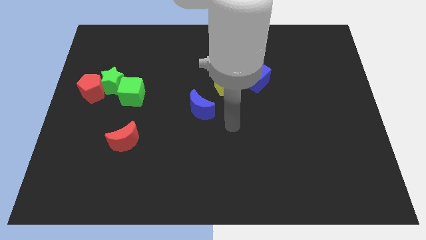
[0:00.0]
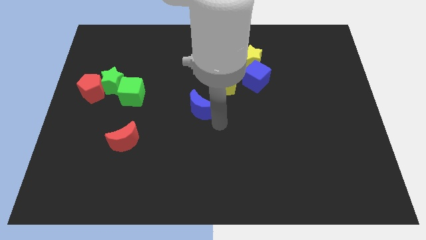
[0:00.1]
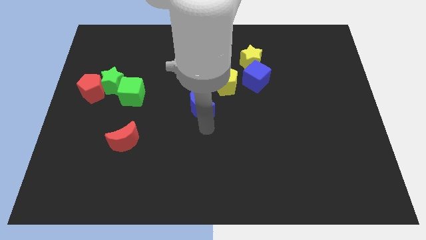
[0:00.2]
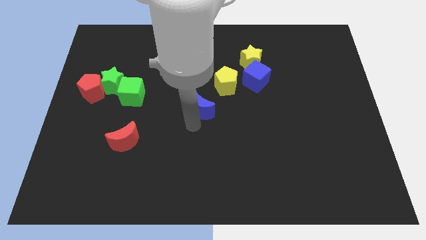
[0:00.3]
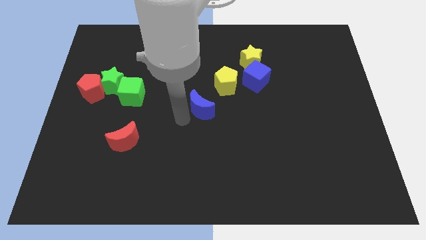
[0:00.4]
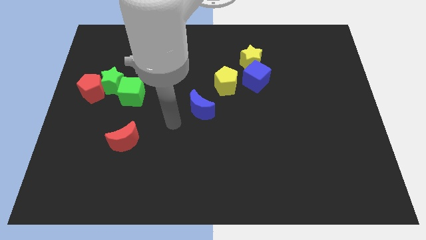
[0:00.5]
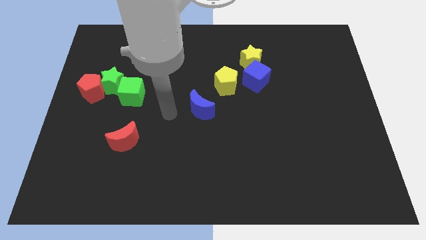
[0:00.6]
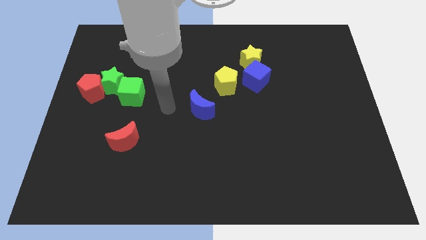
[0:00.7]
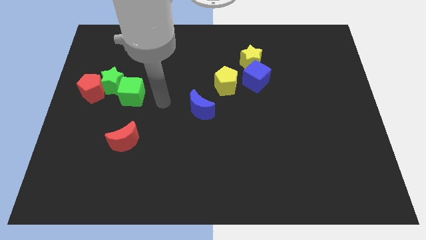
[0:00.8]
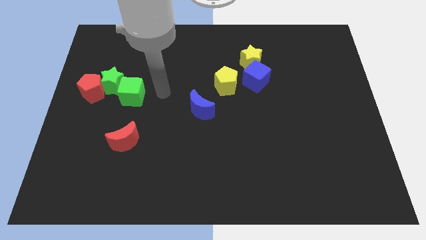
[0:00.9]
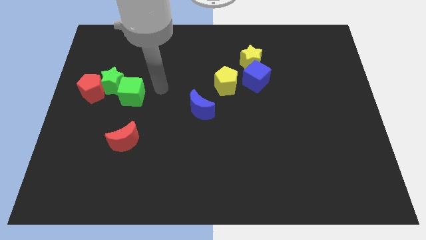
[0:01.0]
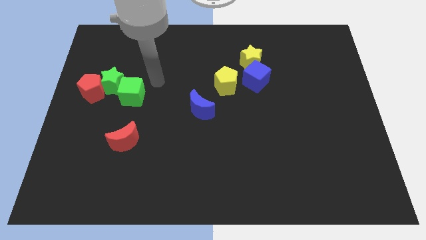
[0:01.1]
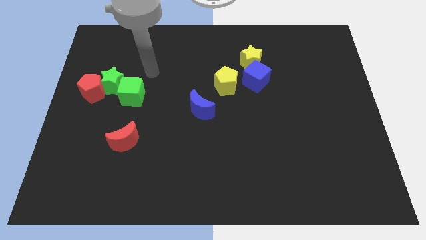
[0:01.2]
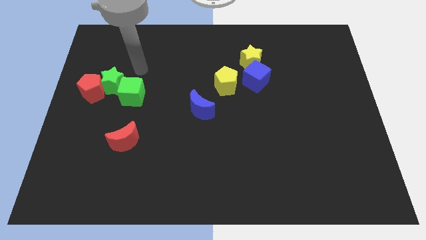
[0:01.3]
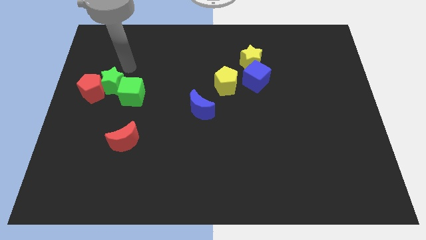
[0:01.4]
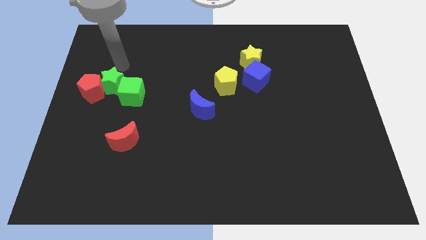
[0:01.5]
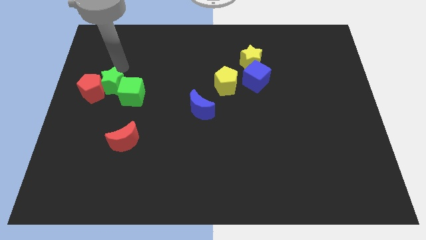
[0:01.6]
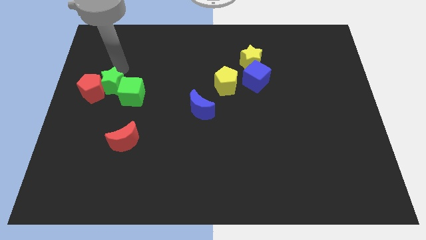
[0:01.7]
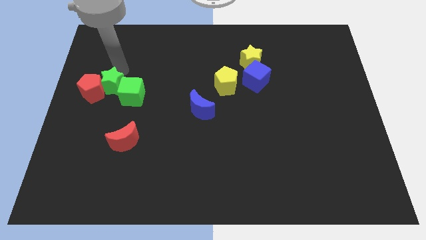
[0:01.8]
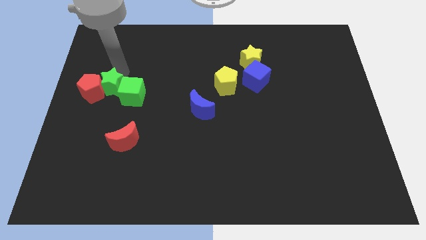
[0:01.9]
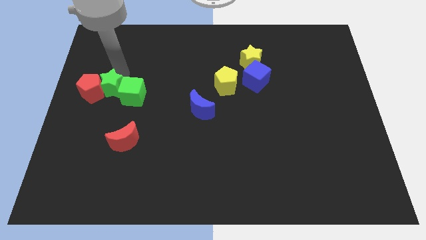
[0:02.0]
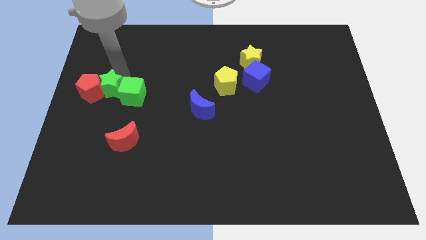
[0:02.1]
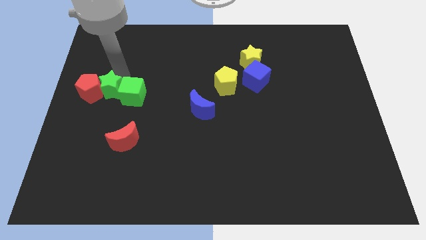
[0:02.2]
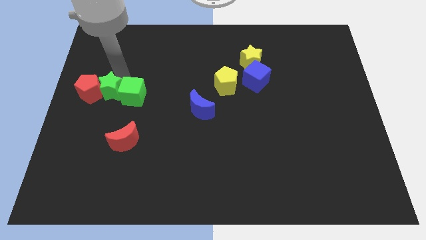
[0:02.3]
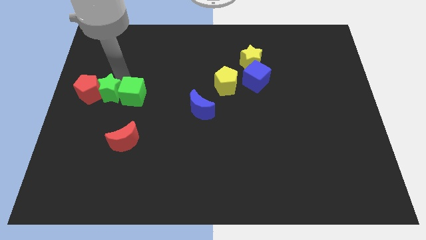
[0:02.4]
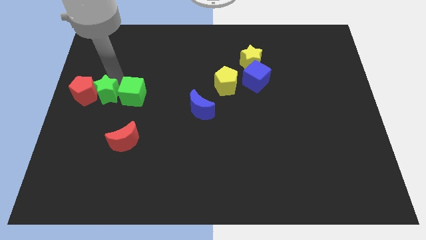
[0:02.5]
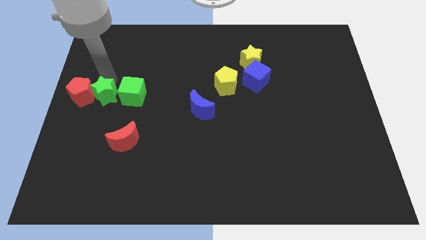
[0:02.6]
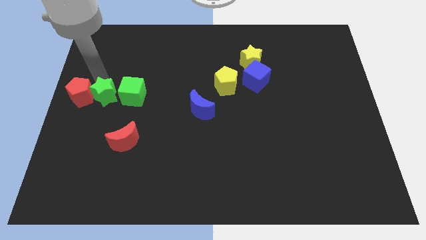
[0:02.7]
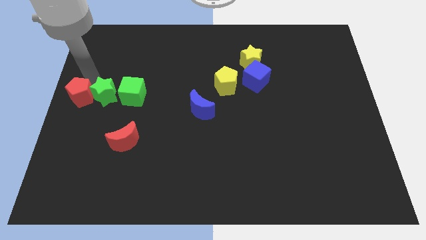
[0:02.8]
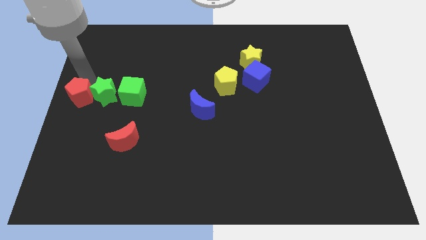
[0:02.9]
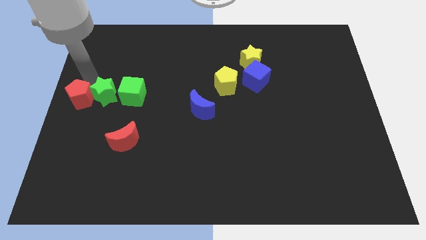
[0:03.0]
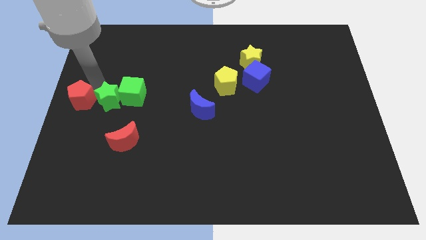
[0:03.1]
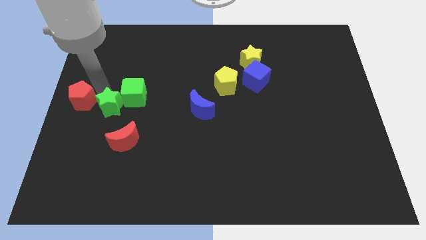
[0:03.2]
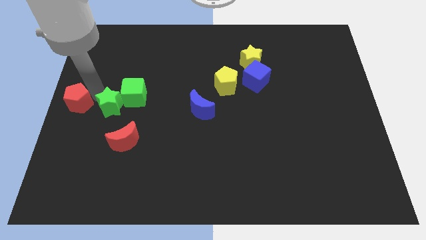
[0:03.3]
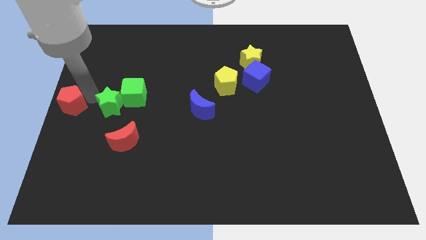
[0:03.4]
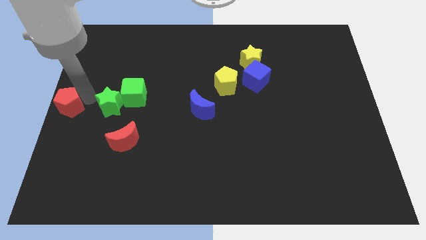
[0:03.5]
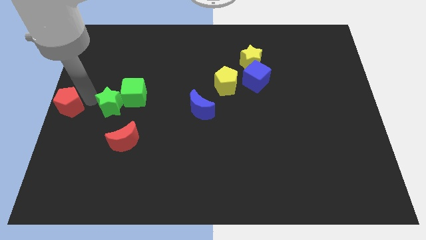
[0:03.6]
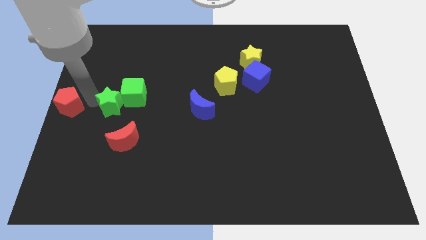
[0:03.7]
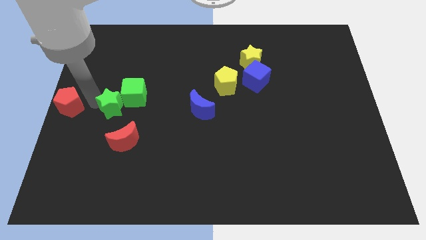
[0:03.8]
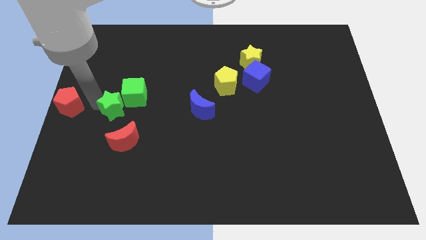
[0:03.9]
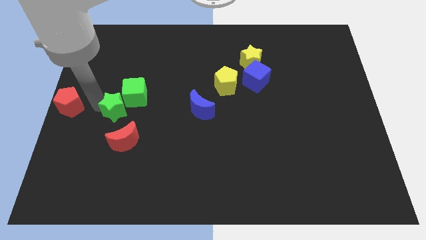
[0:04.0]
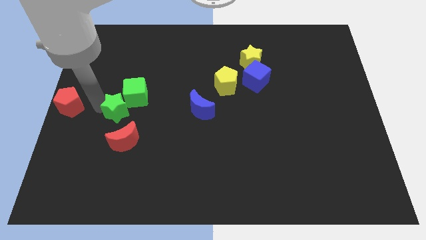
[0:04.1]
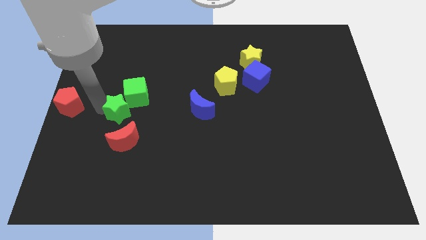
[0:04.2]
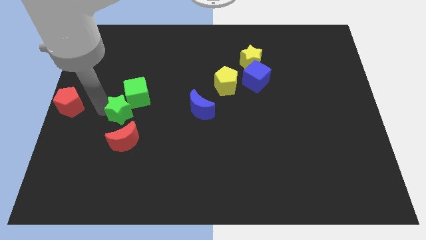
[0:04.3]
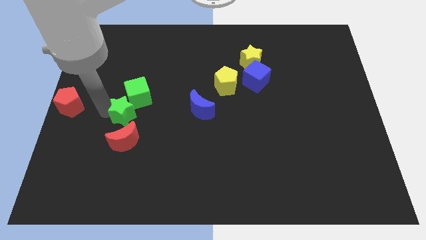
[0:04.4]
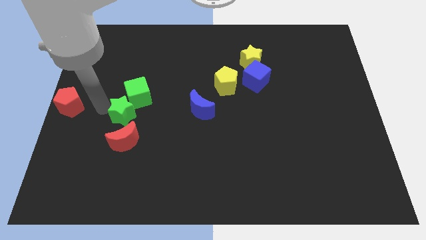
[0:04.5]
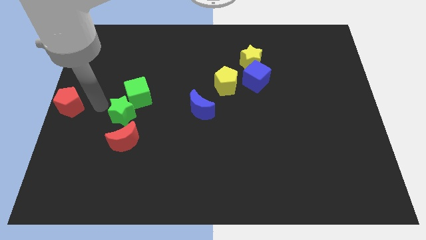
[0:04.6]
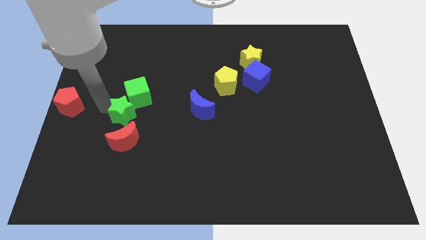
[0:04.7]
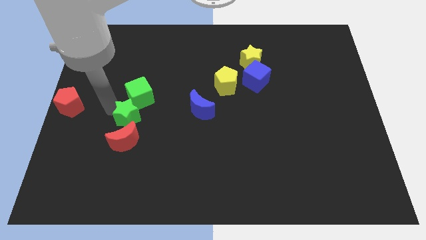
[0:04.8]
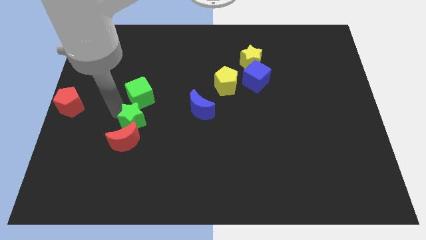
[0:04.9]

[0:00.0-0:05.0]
push the green star to the top right side of the red moon

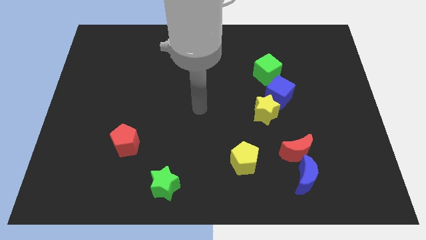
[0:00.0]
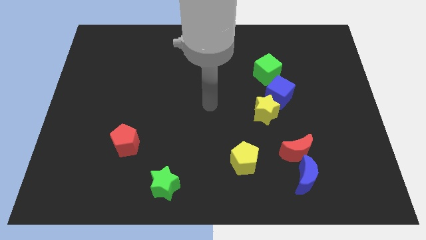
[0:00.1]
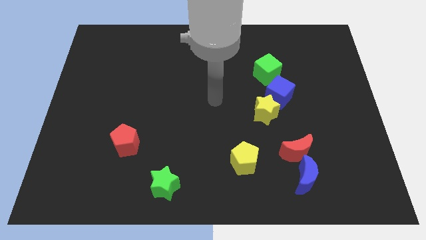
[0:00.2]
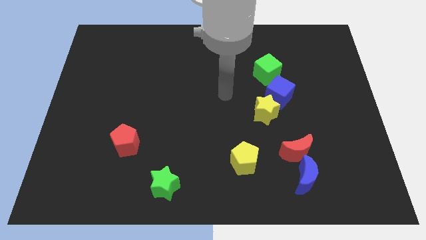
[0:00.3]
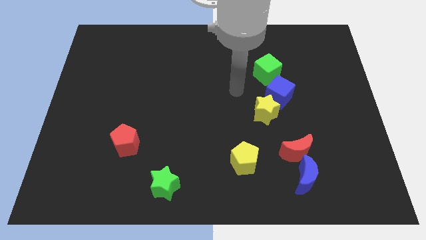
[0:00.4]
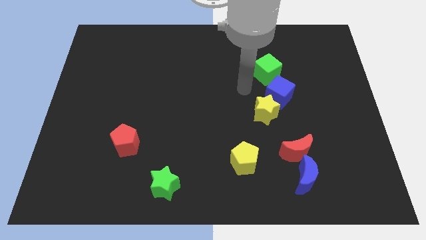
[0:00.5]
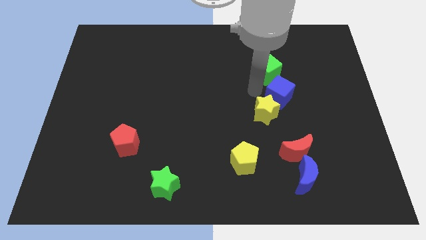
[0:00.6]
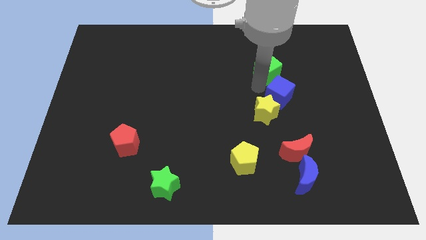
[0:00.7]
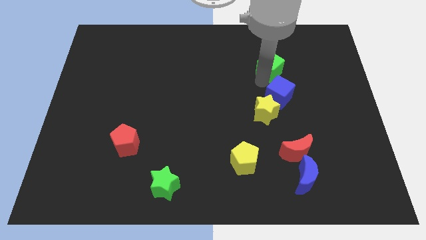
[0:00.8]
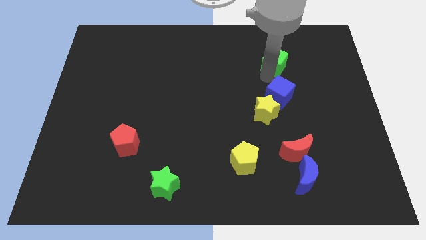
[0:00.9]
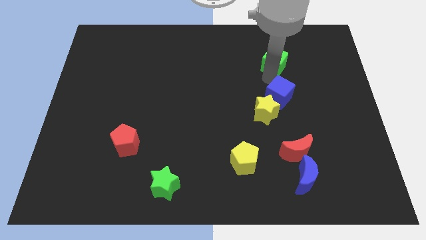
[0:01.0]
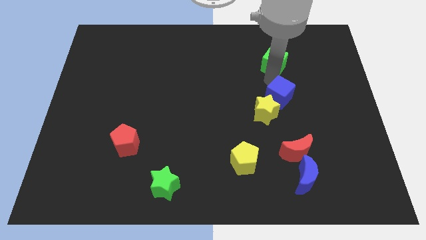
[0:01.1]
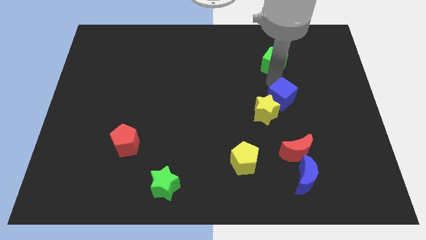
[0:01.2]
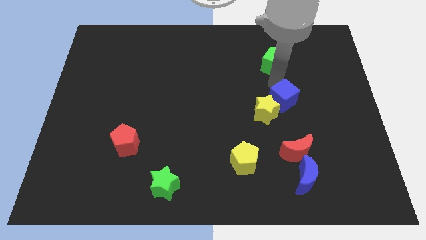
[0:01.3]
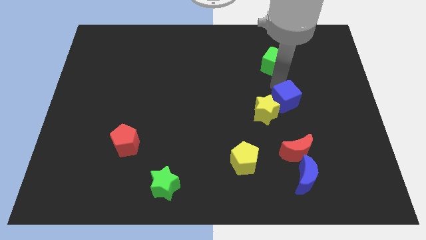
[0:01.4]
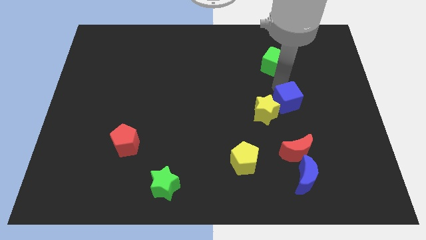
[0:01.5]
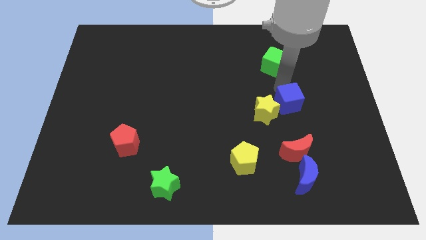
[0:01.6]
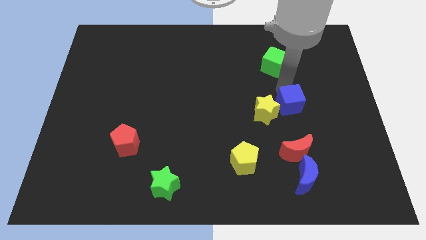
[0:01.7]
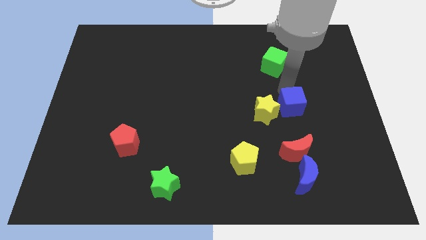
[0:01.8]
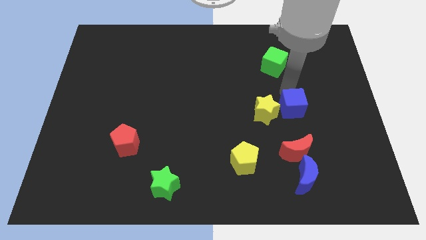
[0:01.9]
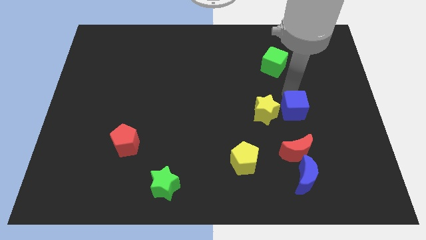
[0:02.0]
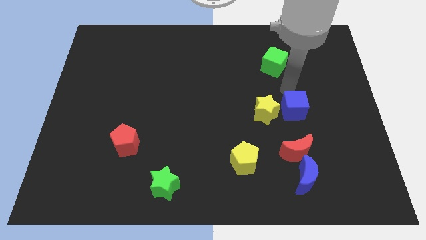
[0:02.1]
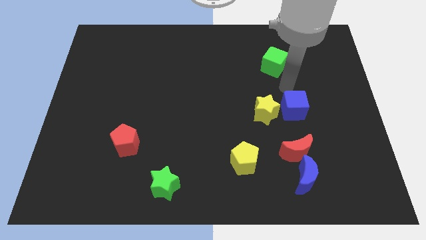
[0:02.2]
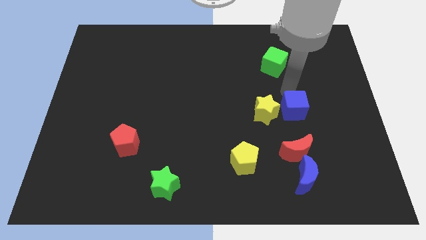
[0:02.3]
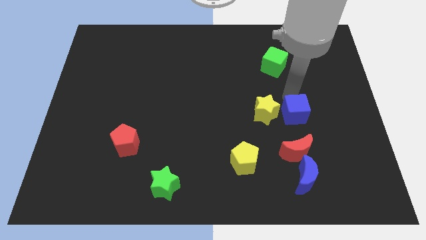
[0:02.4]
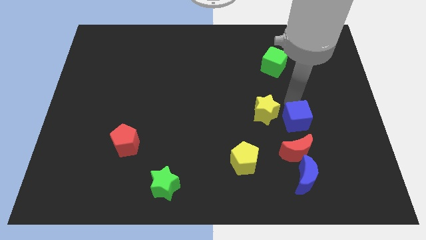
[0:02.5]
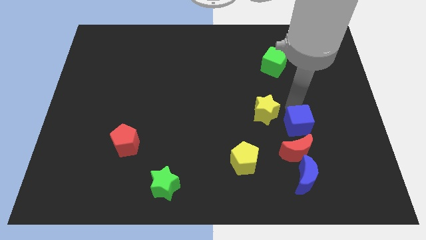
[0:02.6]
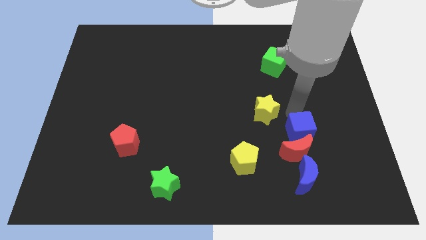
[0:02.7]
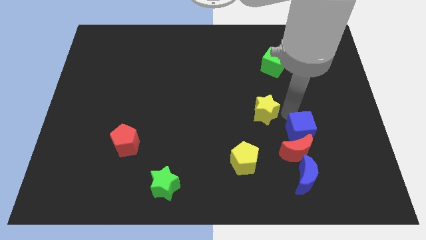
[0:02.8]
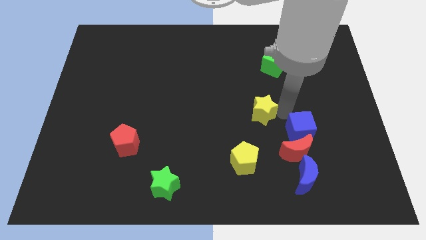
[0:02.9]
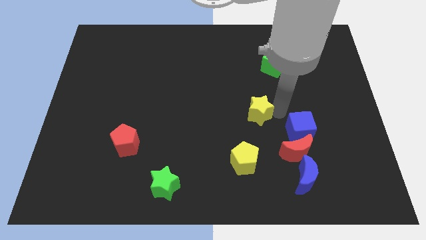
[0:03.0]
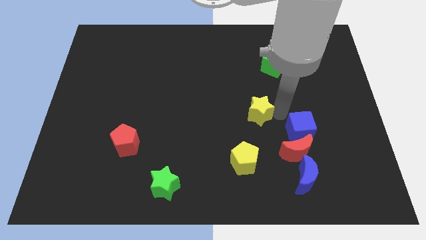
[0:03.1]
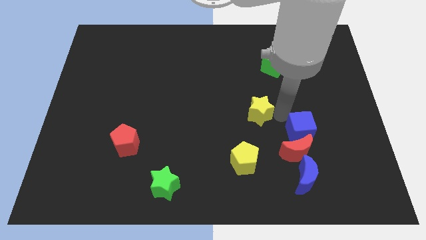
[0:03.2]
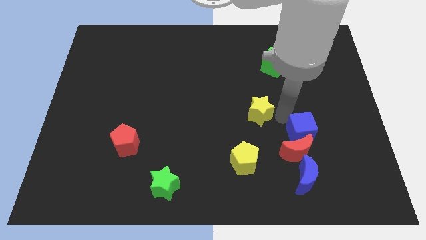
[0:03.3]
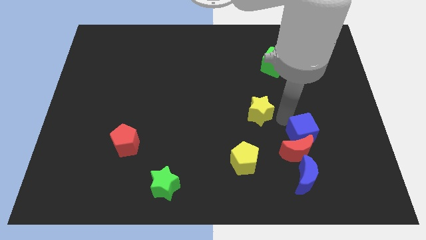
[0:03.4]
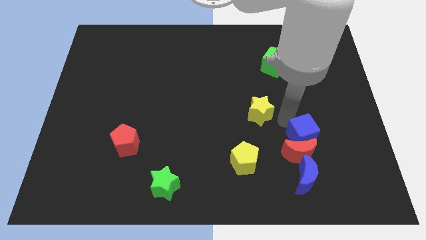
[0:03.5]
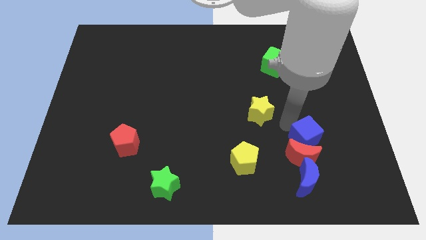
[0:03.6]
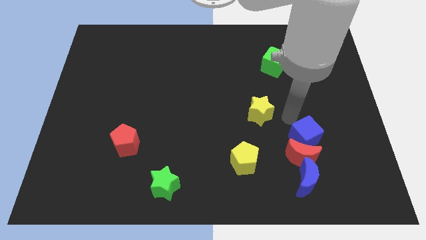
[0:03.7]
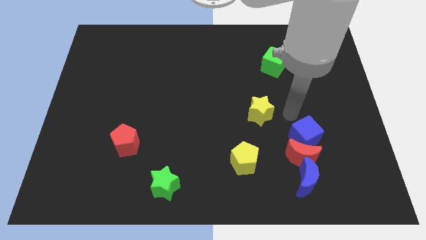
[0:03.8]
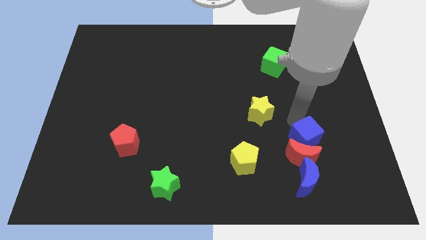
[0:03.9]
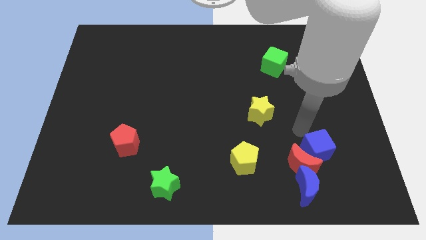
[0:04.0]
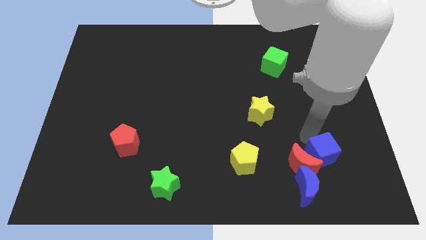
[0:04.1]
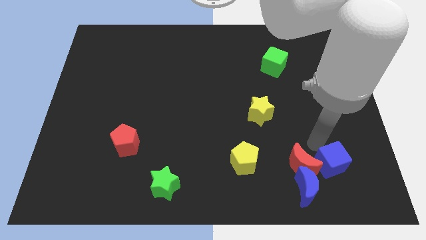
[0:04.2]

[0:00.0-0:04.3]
slide the blue cube to the bottom right of the red moon
